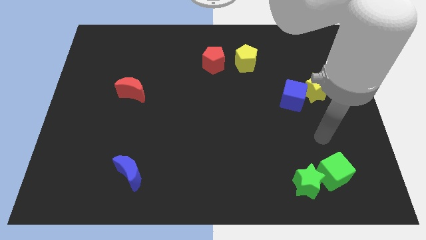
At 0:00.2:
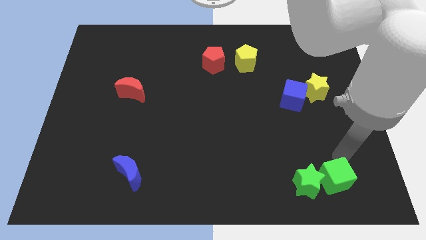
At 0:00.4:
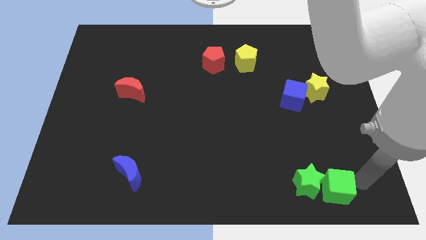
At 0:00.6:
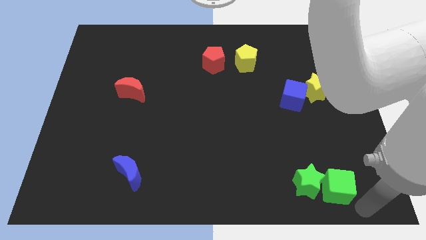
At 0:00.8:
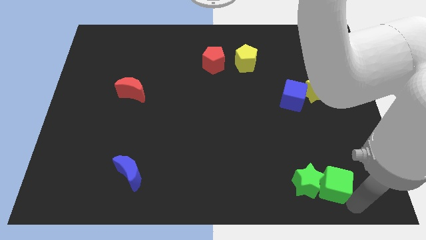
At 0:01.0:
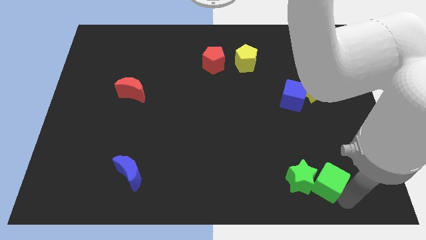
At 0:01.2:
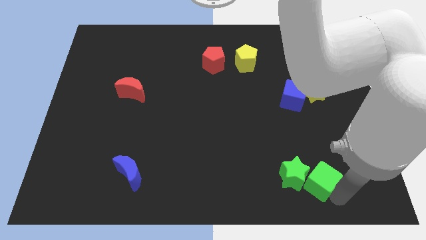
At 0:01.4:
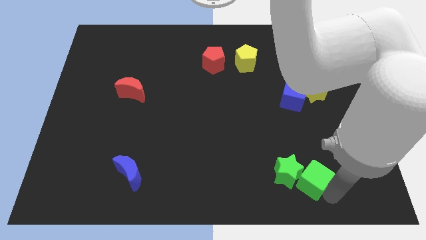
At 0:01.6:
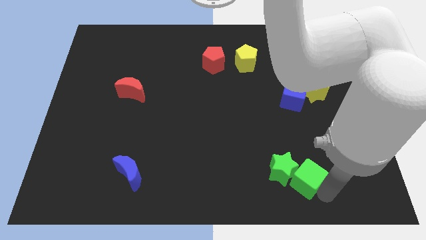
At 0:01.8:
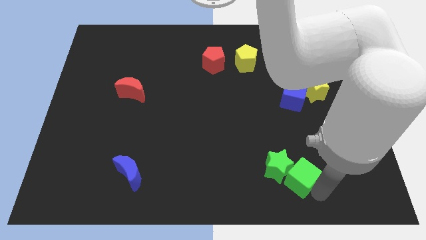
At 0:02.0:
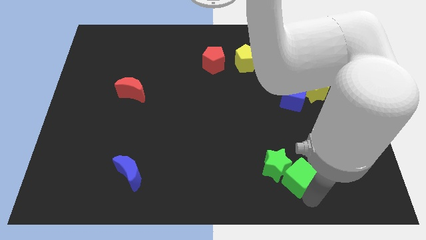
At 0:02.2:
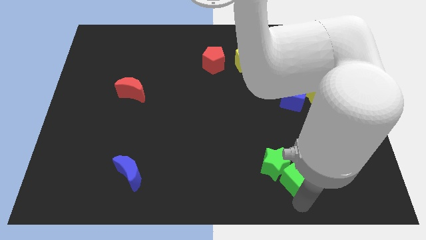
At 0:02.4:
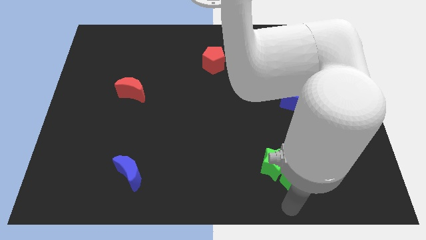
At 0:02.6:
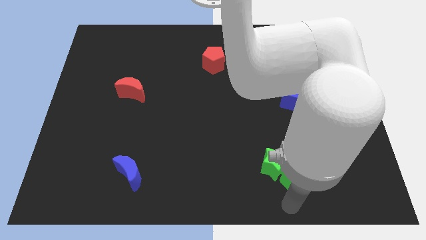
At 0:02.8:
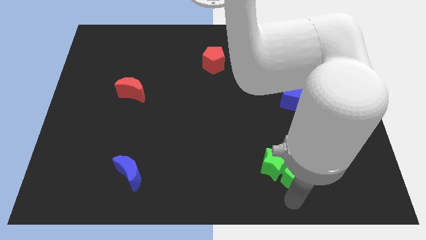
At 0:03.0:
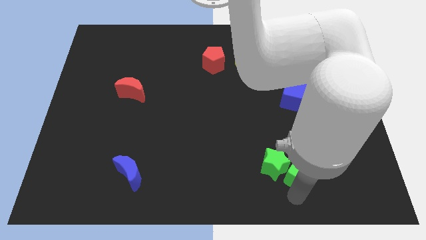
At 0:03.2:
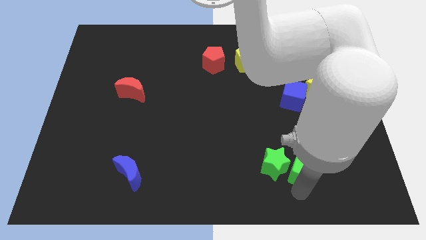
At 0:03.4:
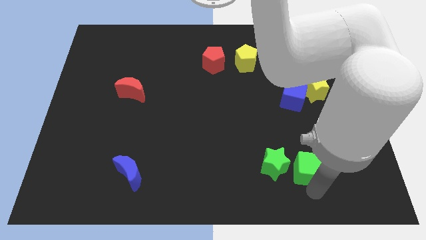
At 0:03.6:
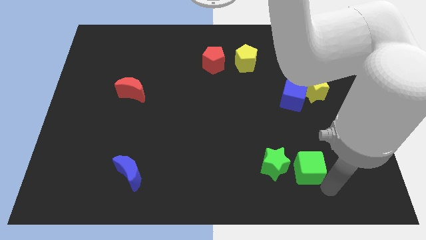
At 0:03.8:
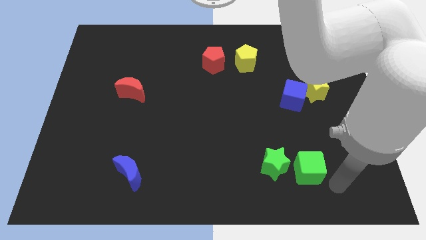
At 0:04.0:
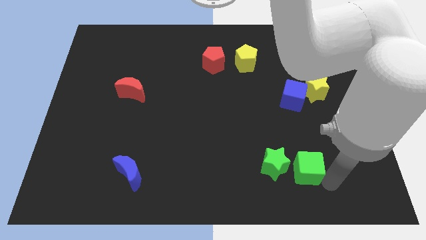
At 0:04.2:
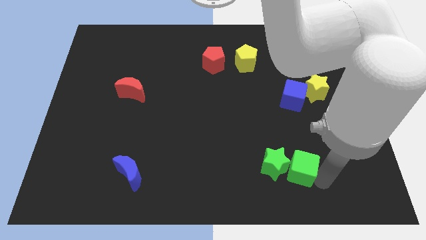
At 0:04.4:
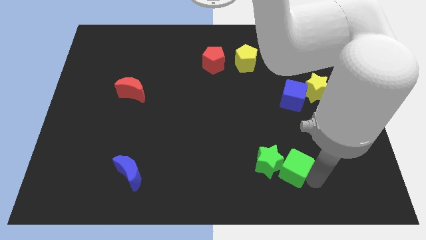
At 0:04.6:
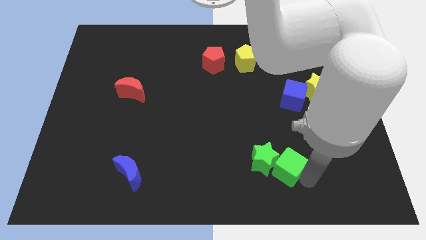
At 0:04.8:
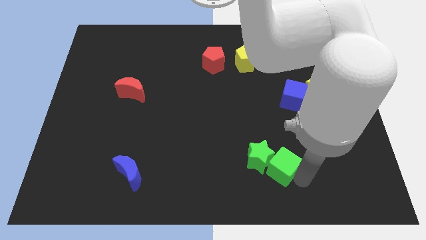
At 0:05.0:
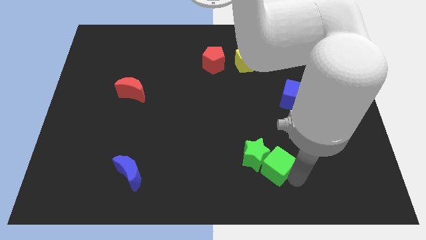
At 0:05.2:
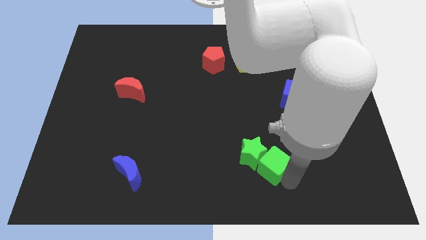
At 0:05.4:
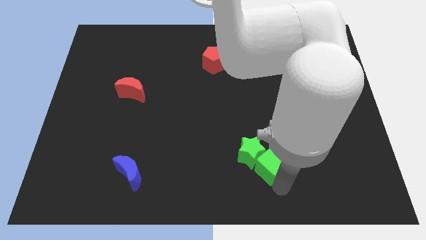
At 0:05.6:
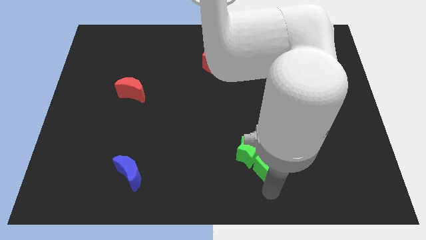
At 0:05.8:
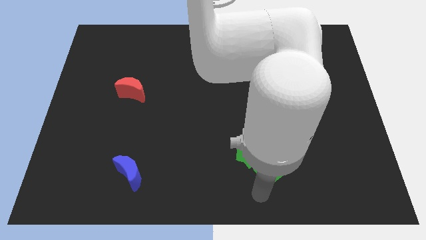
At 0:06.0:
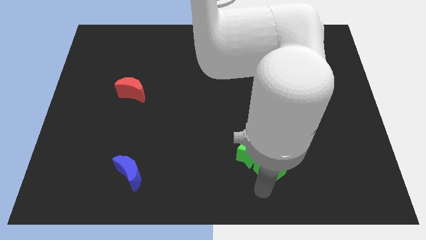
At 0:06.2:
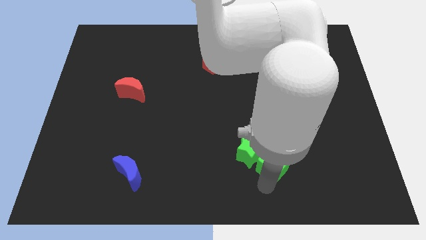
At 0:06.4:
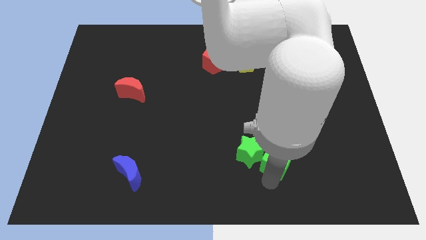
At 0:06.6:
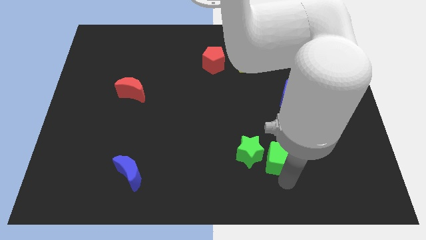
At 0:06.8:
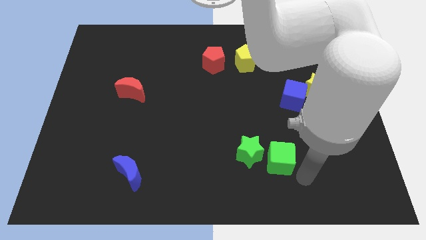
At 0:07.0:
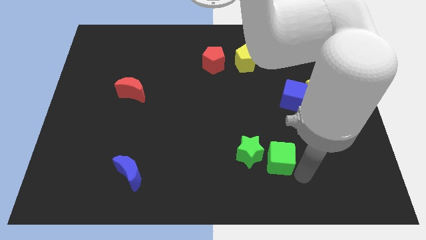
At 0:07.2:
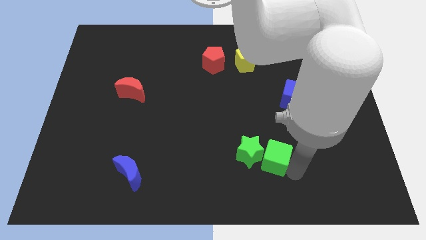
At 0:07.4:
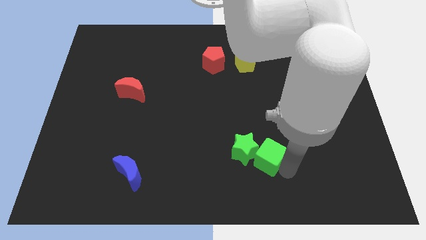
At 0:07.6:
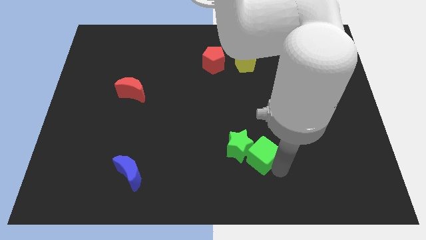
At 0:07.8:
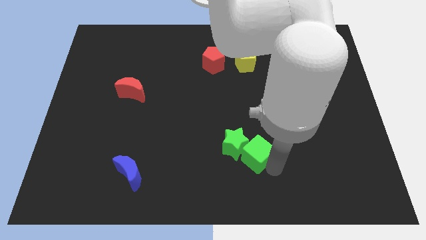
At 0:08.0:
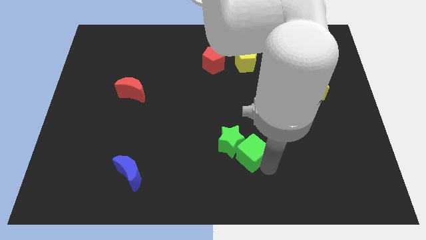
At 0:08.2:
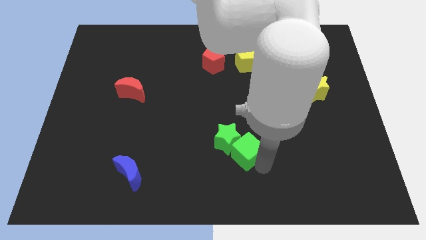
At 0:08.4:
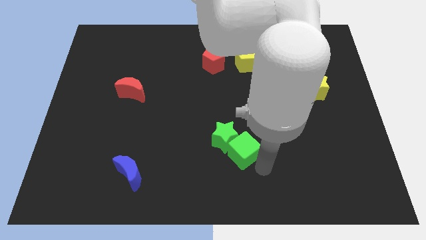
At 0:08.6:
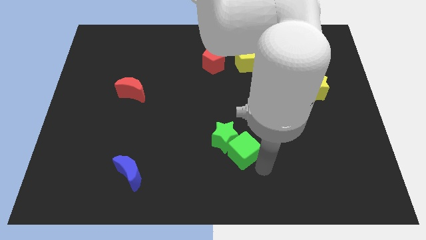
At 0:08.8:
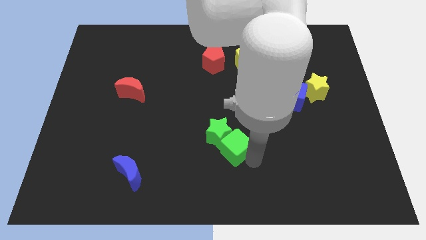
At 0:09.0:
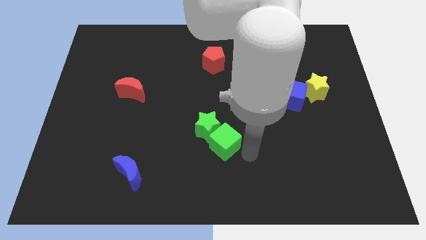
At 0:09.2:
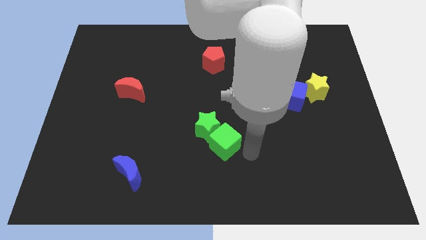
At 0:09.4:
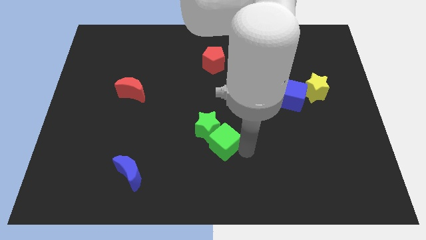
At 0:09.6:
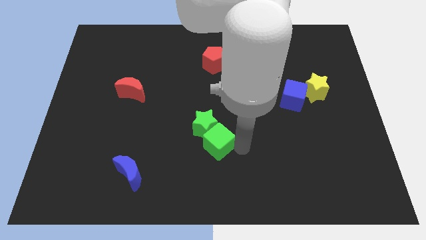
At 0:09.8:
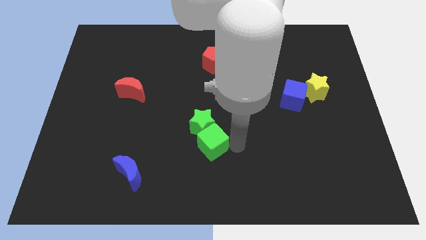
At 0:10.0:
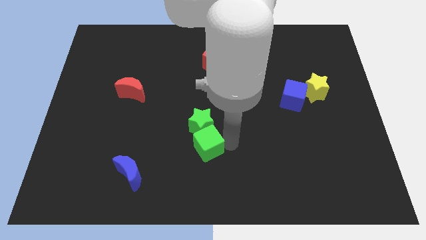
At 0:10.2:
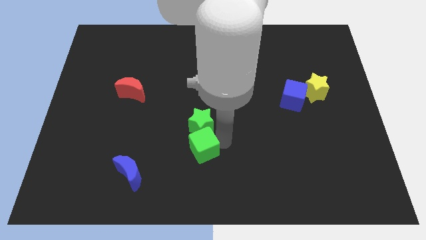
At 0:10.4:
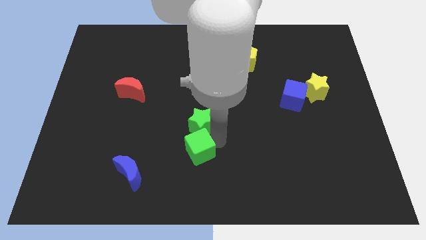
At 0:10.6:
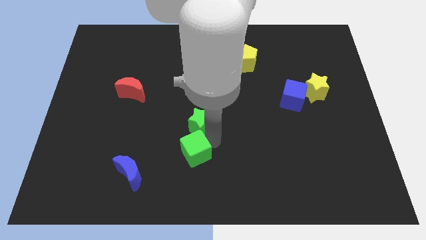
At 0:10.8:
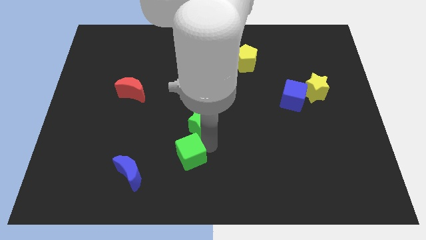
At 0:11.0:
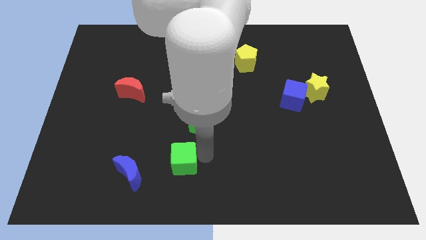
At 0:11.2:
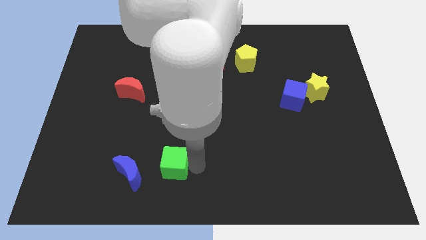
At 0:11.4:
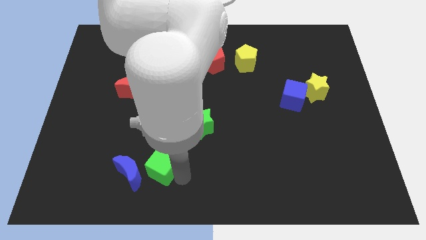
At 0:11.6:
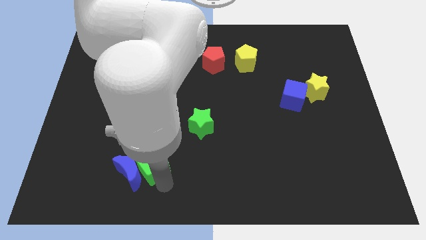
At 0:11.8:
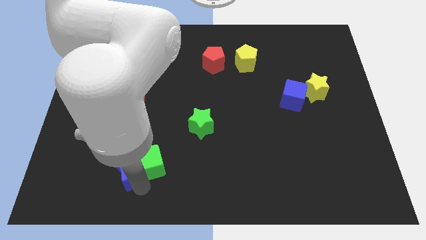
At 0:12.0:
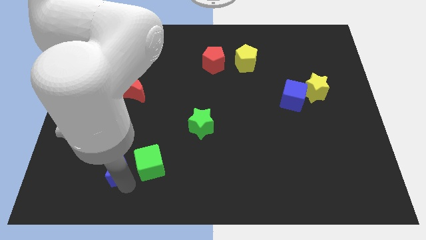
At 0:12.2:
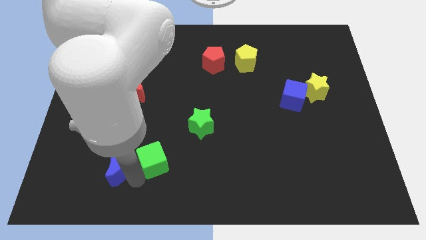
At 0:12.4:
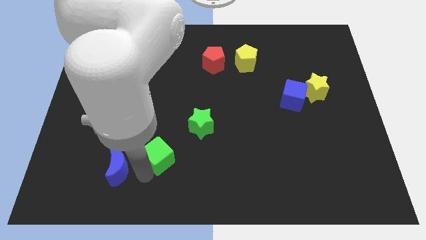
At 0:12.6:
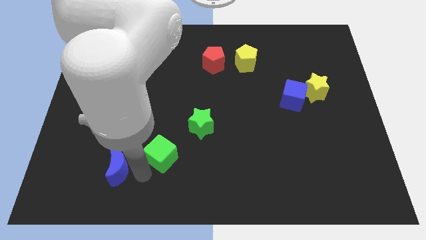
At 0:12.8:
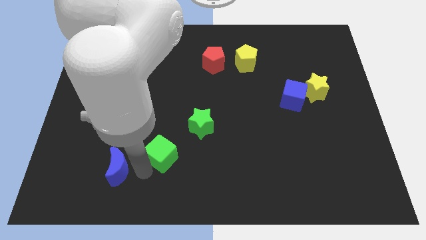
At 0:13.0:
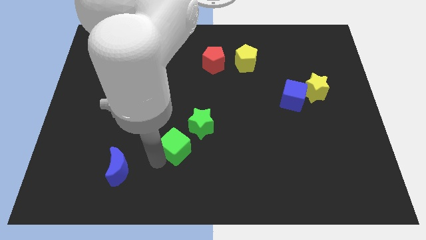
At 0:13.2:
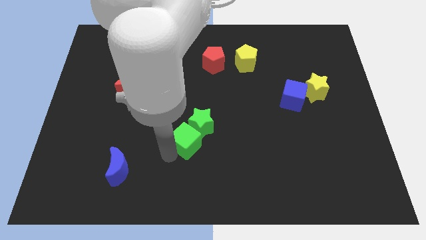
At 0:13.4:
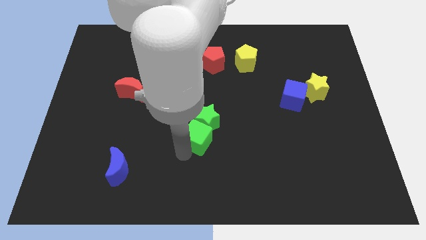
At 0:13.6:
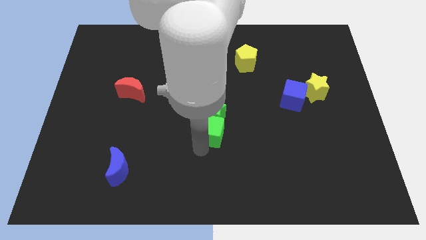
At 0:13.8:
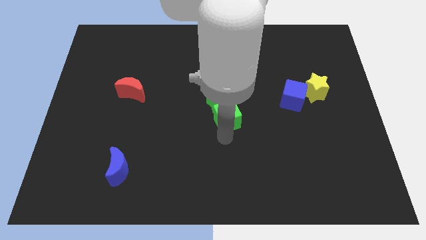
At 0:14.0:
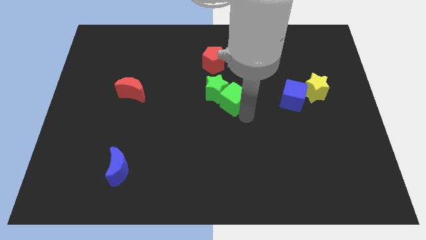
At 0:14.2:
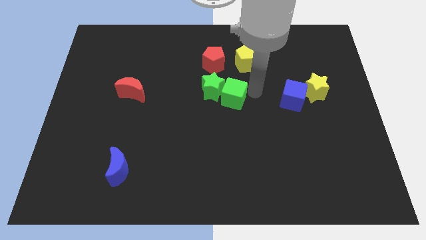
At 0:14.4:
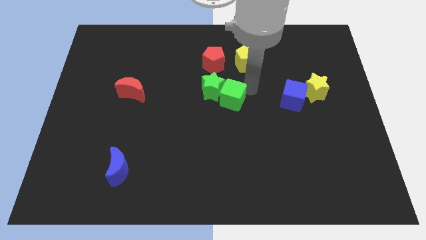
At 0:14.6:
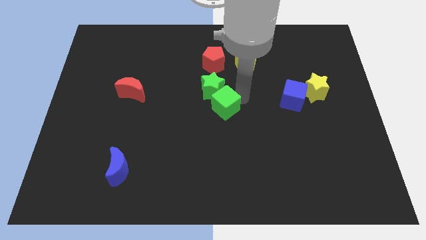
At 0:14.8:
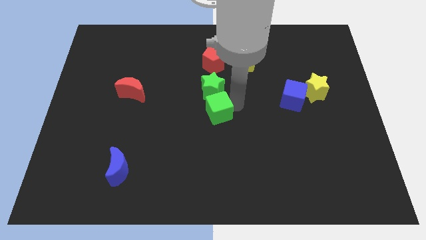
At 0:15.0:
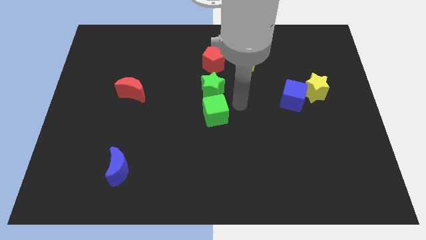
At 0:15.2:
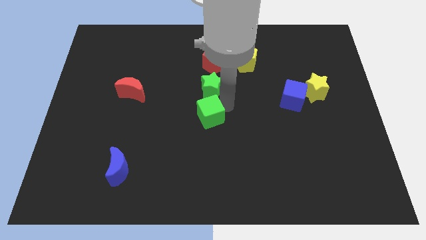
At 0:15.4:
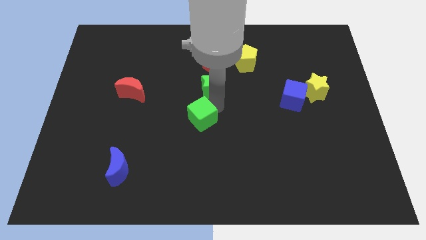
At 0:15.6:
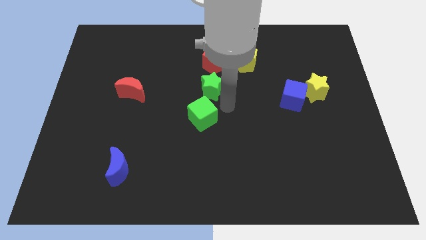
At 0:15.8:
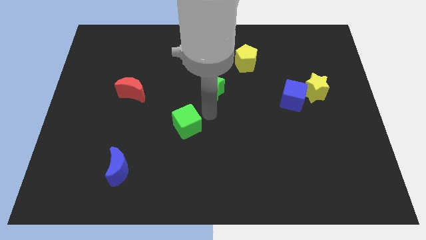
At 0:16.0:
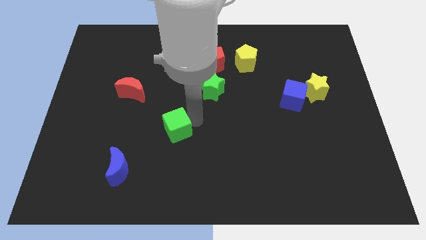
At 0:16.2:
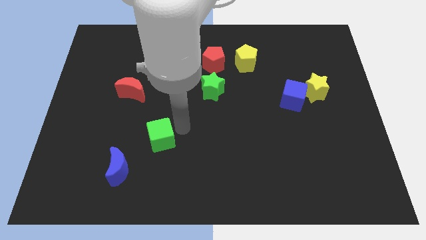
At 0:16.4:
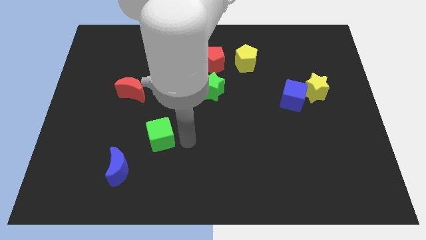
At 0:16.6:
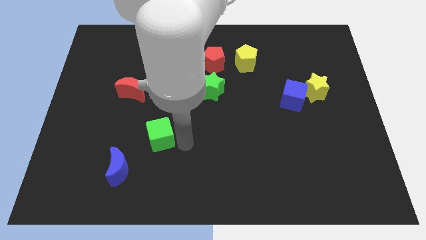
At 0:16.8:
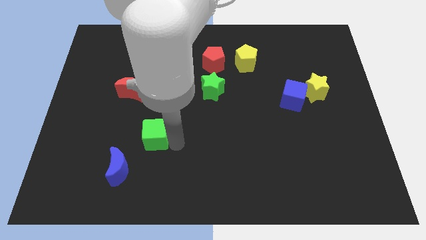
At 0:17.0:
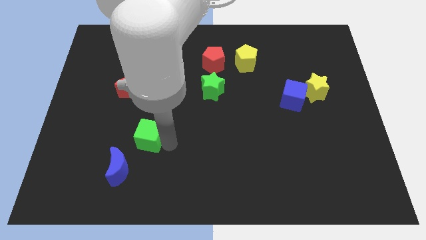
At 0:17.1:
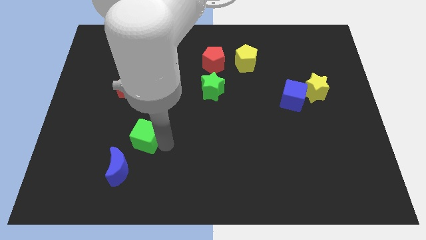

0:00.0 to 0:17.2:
push the green cube to the top of the blue moon
